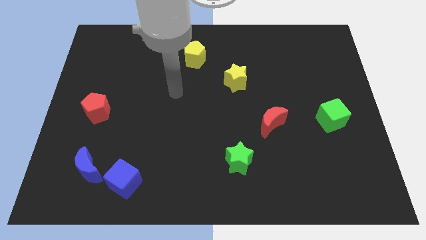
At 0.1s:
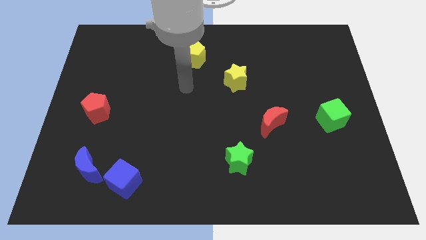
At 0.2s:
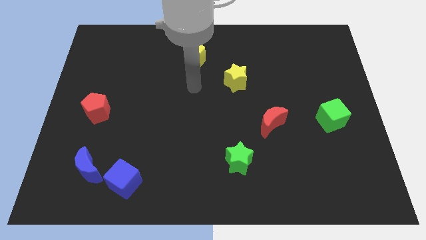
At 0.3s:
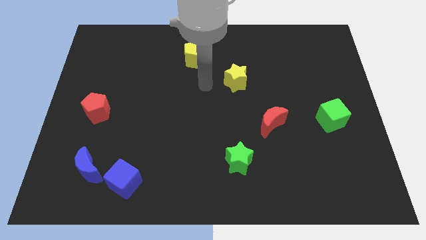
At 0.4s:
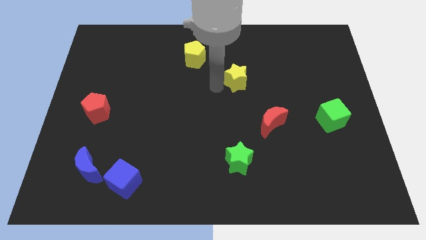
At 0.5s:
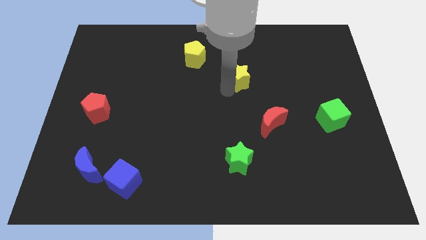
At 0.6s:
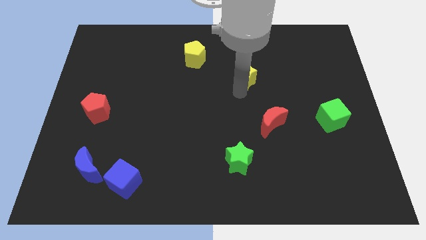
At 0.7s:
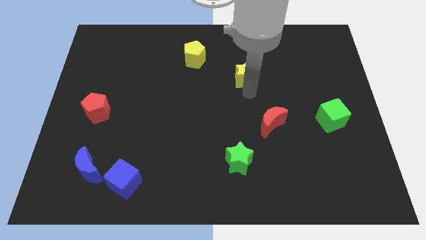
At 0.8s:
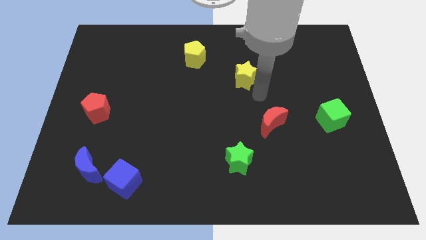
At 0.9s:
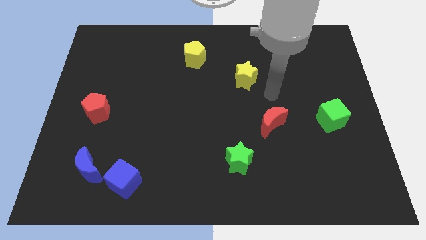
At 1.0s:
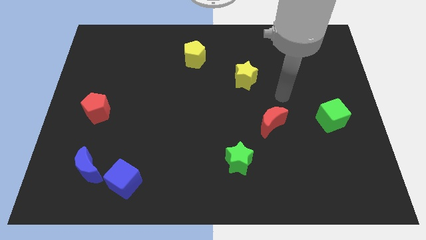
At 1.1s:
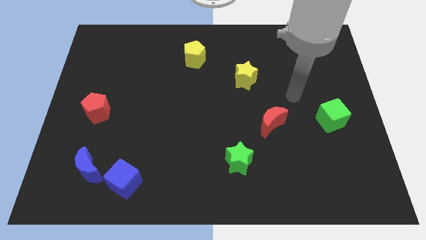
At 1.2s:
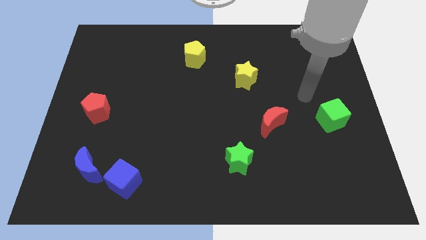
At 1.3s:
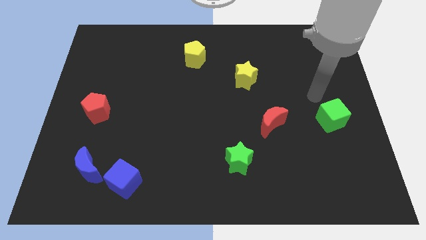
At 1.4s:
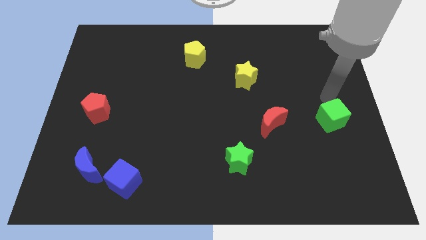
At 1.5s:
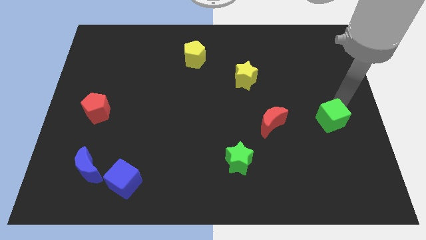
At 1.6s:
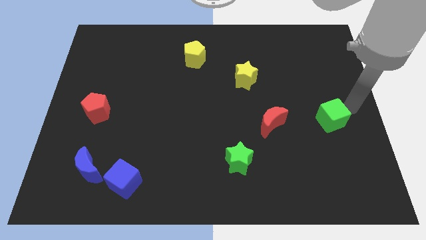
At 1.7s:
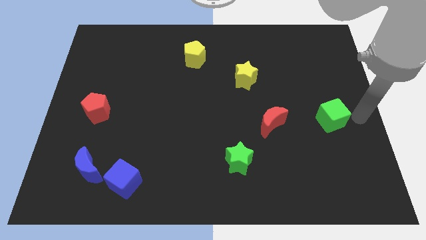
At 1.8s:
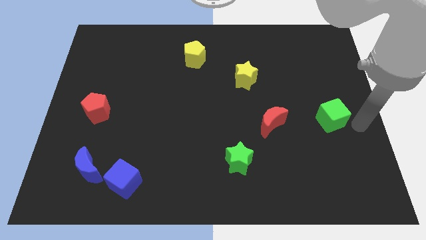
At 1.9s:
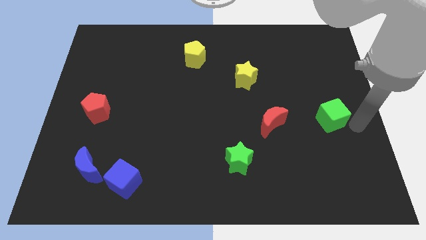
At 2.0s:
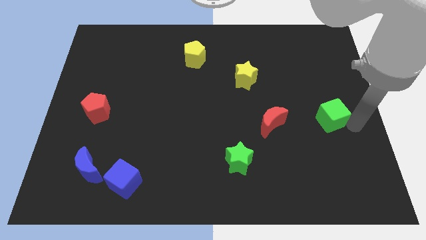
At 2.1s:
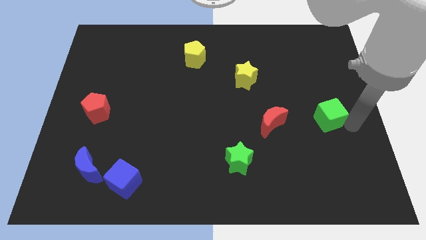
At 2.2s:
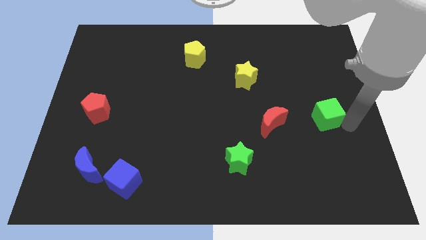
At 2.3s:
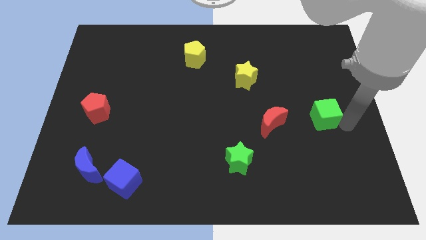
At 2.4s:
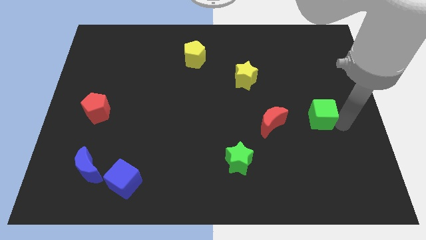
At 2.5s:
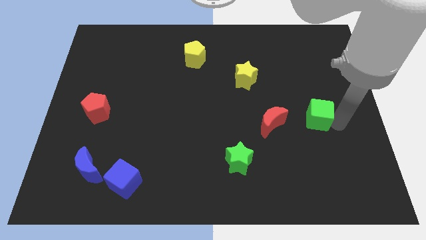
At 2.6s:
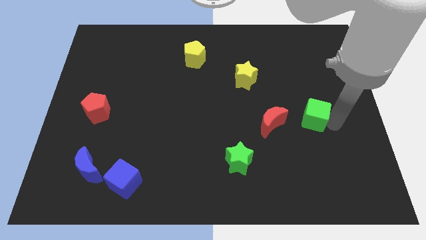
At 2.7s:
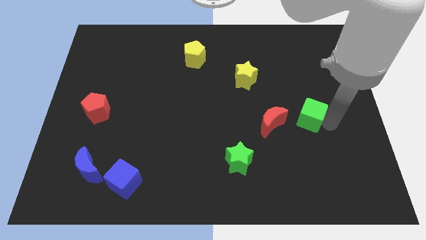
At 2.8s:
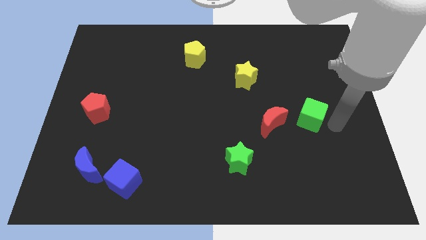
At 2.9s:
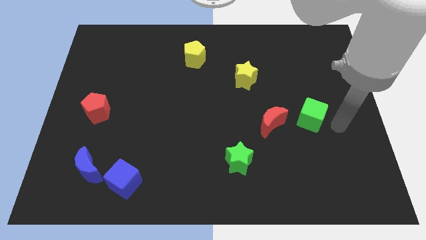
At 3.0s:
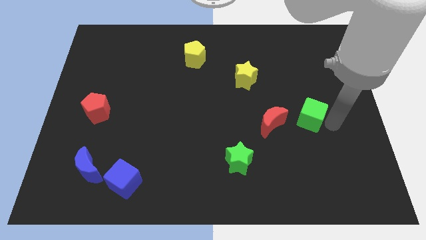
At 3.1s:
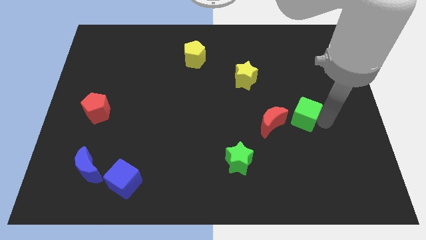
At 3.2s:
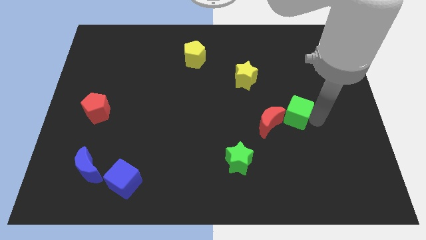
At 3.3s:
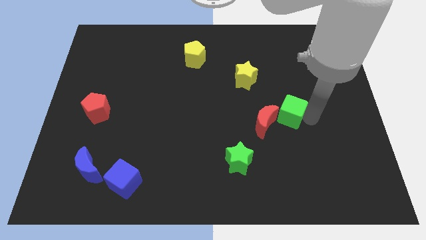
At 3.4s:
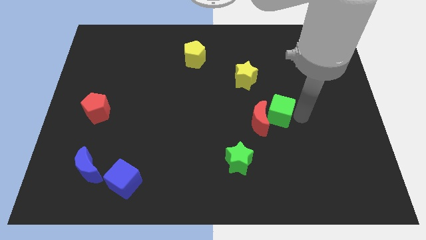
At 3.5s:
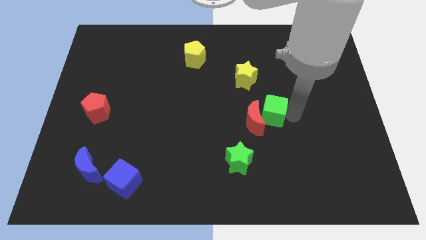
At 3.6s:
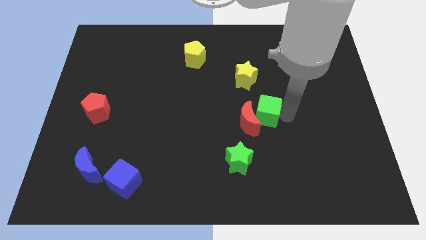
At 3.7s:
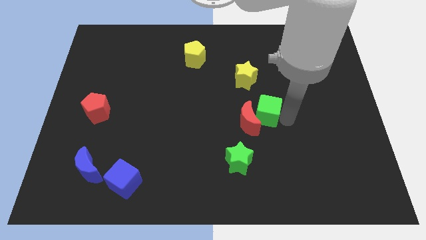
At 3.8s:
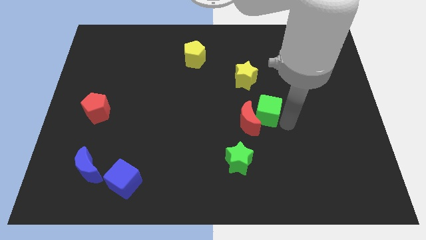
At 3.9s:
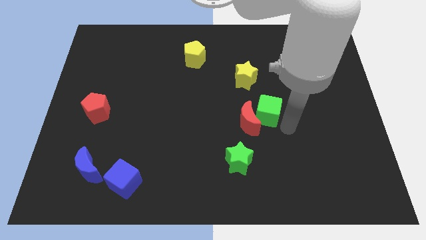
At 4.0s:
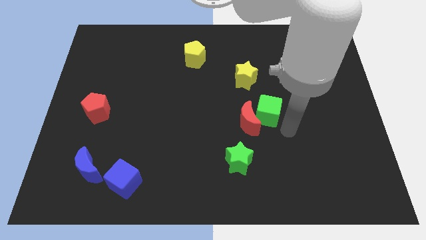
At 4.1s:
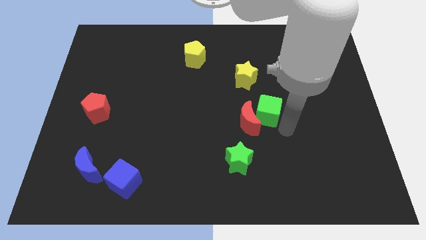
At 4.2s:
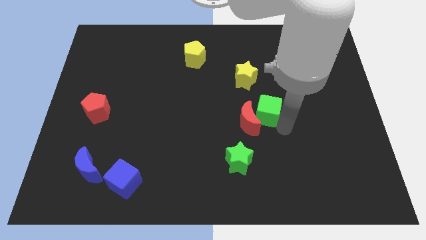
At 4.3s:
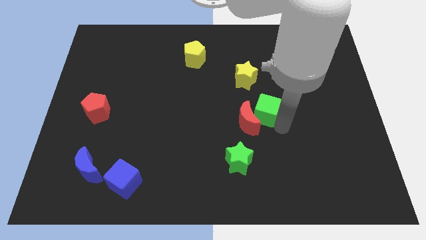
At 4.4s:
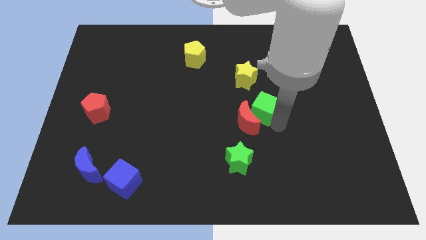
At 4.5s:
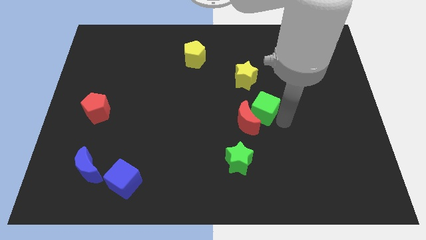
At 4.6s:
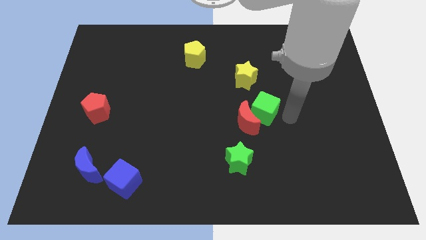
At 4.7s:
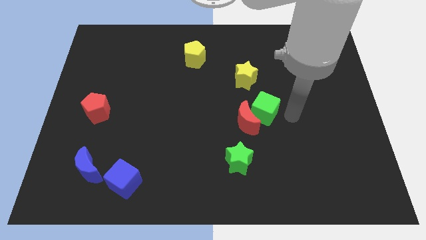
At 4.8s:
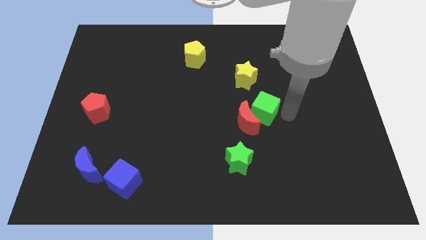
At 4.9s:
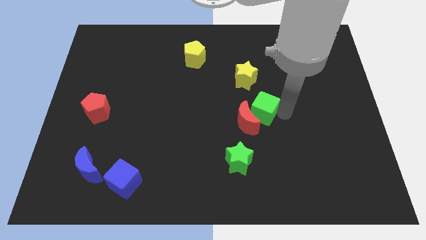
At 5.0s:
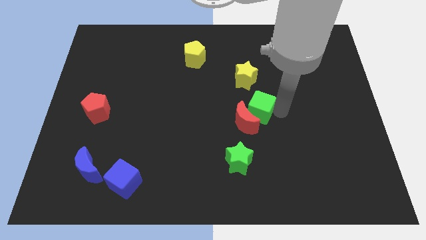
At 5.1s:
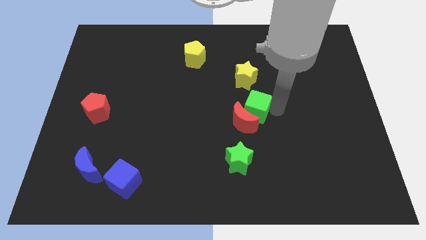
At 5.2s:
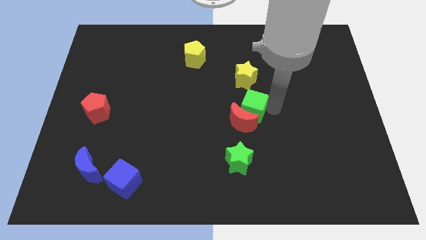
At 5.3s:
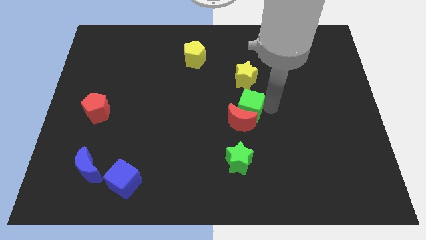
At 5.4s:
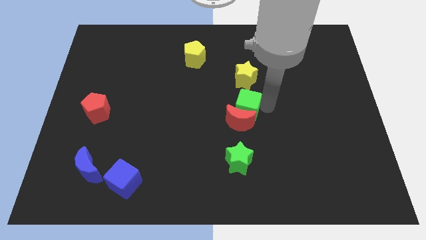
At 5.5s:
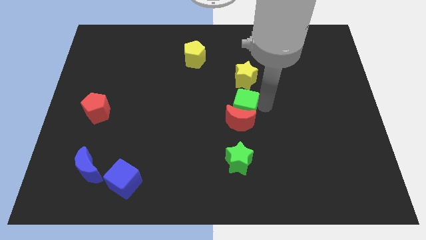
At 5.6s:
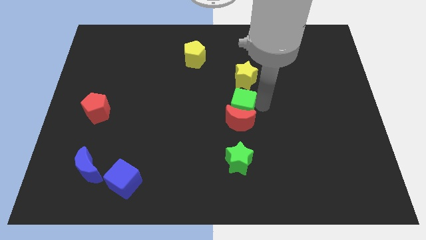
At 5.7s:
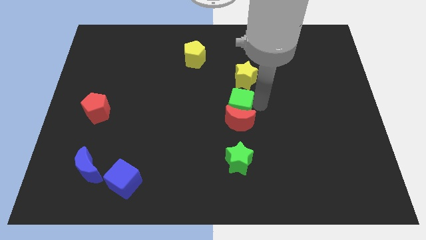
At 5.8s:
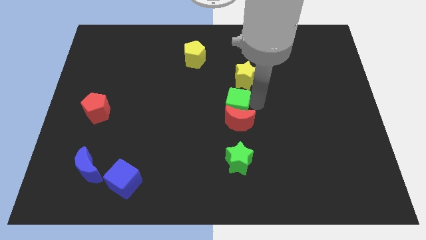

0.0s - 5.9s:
put the green cube diagonally down and to the left of the yellow star

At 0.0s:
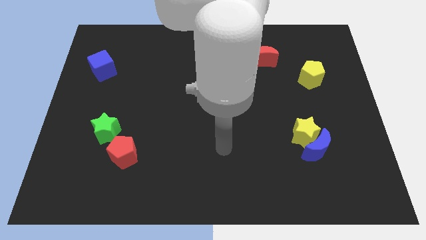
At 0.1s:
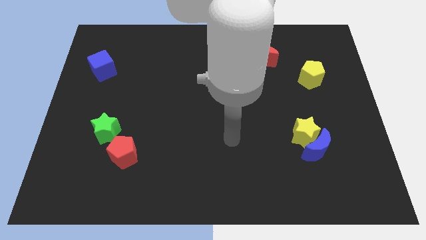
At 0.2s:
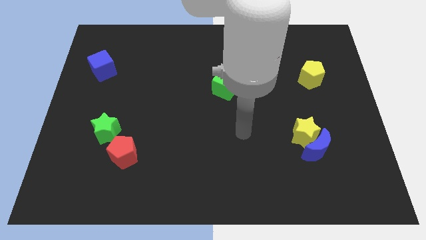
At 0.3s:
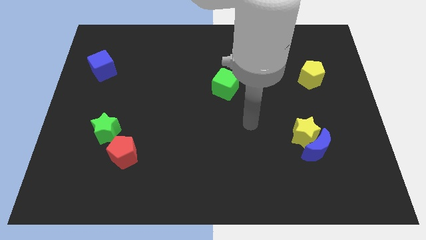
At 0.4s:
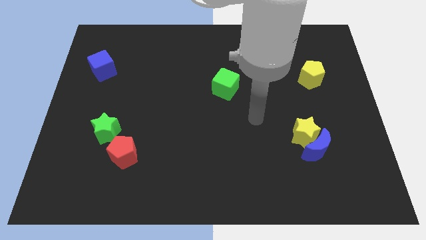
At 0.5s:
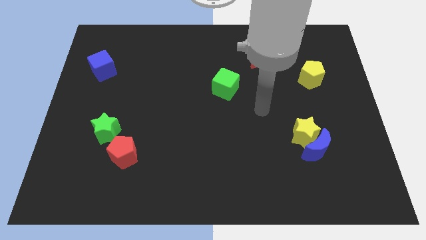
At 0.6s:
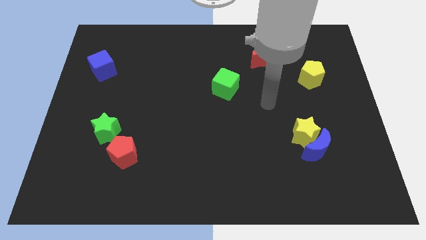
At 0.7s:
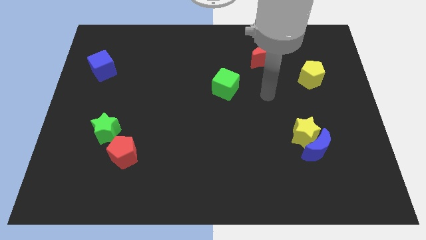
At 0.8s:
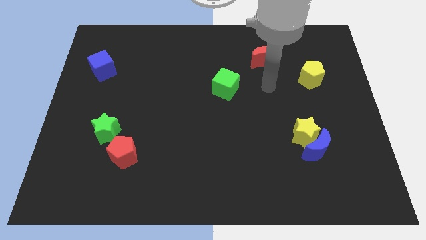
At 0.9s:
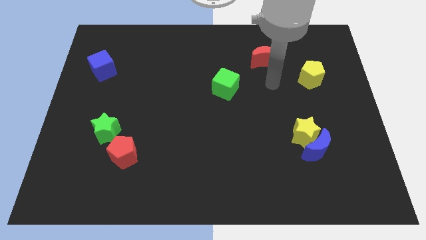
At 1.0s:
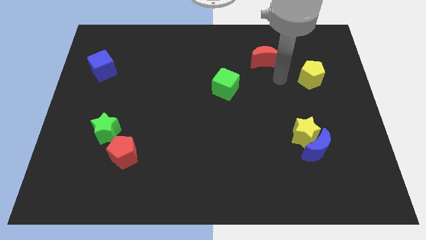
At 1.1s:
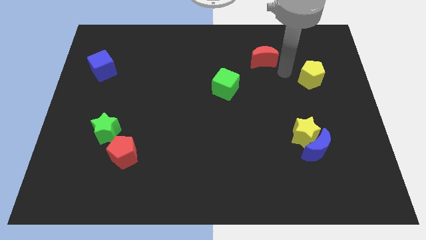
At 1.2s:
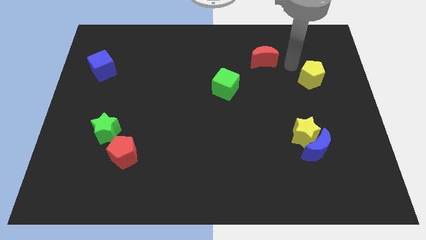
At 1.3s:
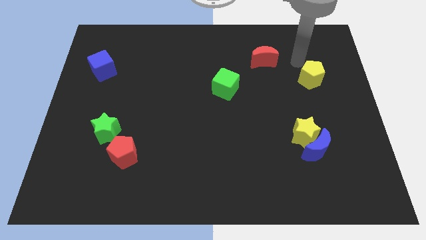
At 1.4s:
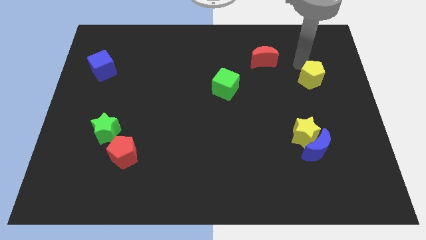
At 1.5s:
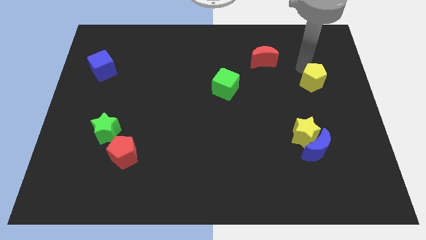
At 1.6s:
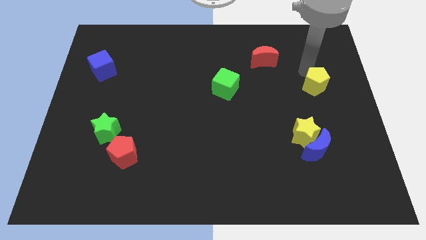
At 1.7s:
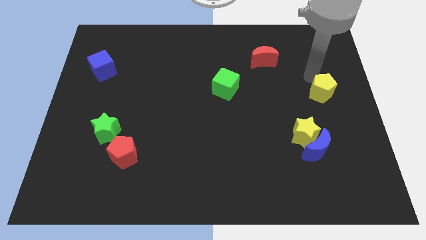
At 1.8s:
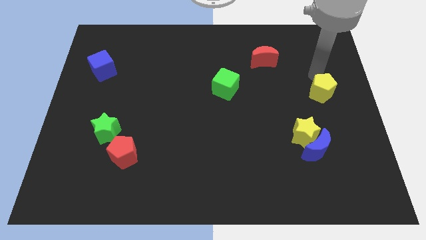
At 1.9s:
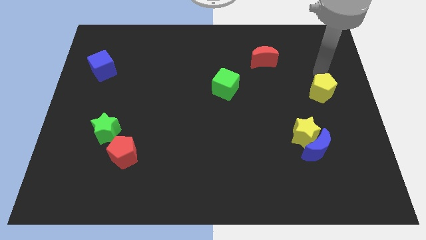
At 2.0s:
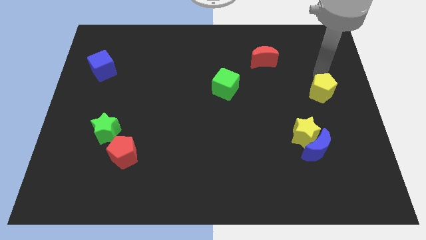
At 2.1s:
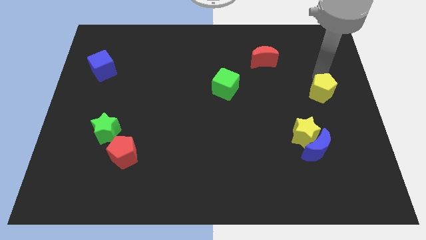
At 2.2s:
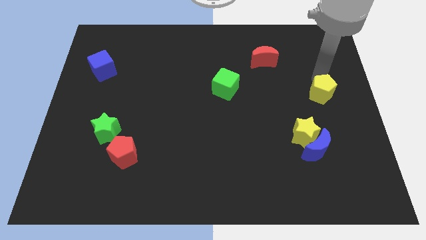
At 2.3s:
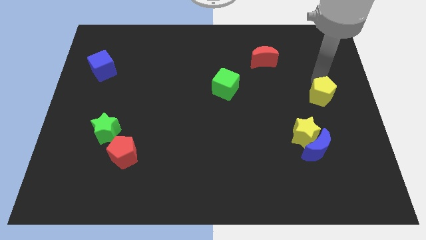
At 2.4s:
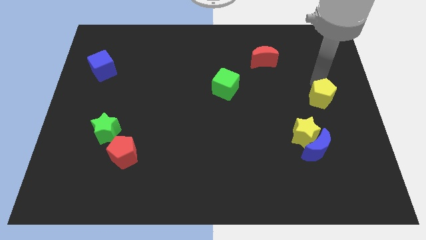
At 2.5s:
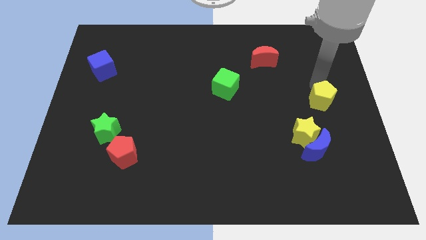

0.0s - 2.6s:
slide the yellow pentagon to the top right side of the yellow star

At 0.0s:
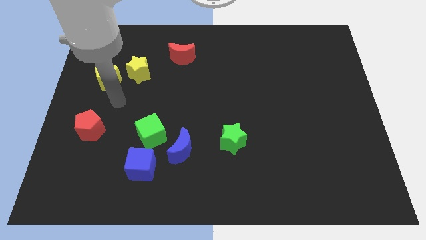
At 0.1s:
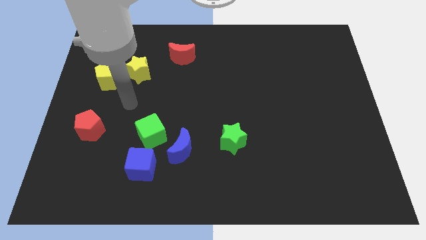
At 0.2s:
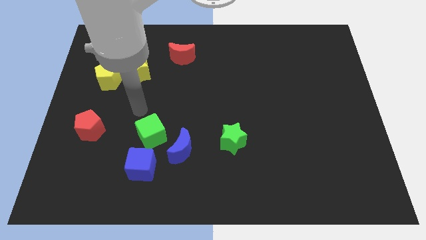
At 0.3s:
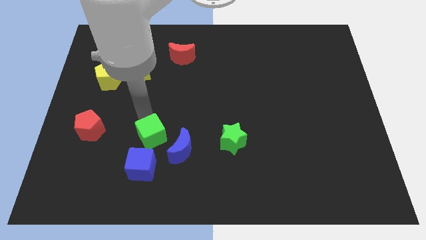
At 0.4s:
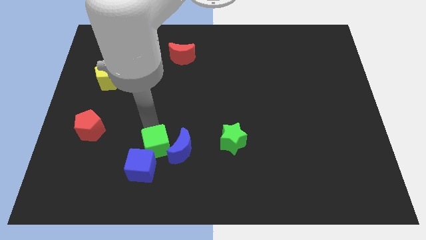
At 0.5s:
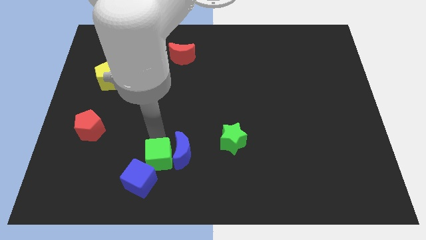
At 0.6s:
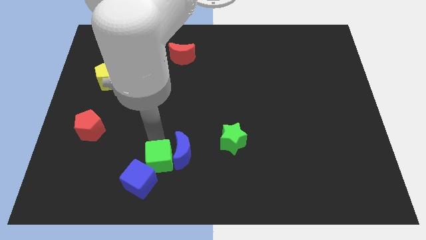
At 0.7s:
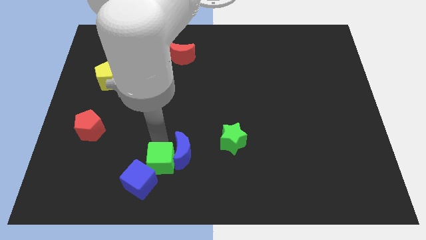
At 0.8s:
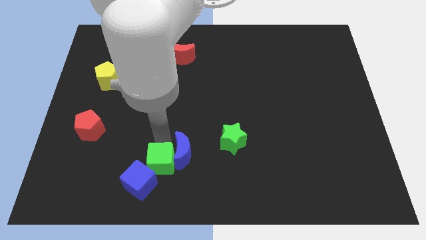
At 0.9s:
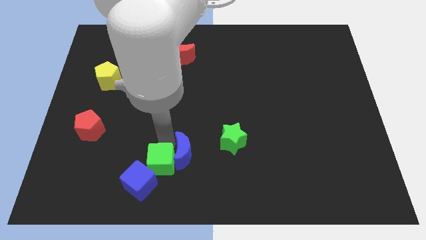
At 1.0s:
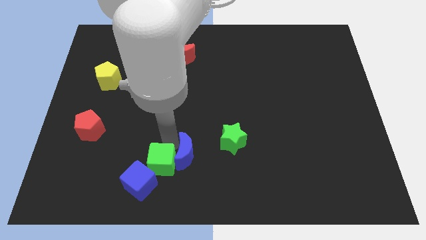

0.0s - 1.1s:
slide the blue moon diagonally down and to the left of the green star
